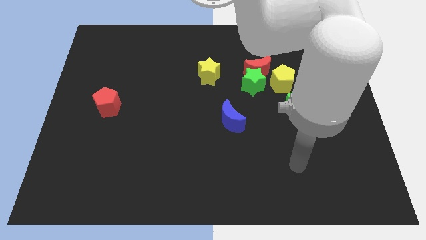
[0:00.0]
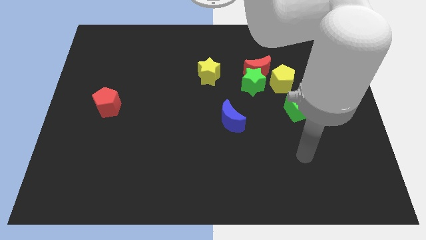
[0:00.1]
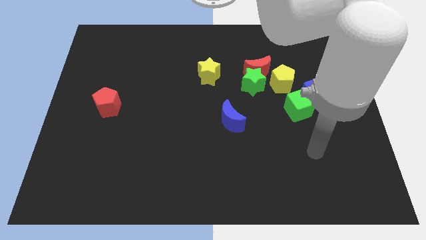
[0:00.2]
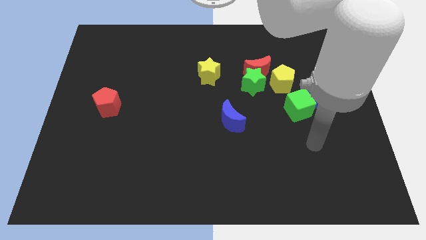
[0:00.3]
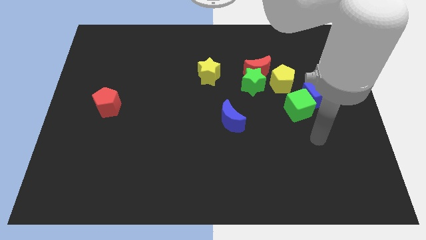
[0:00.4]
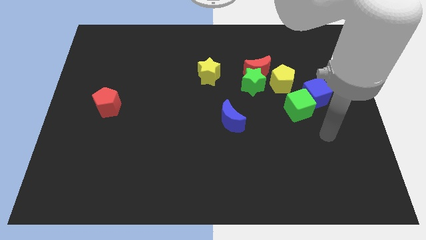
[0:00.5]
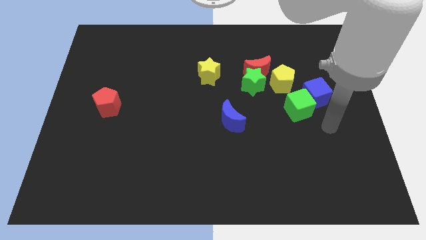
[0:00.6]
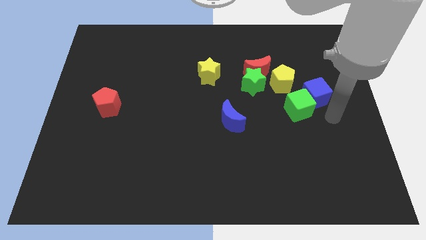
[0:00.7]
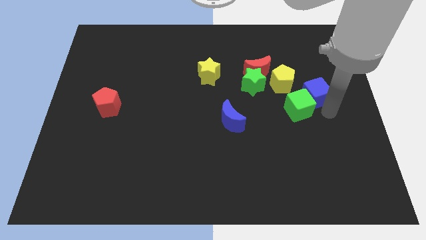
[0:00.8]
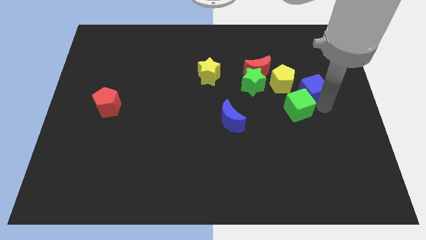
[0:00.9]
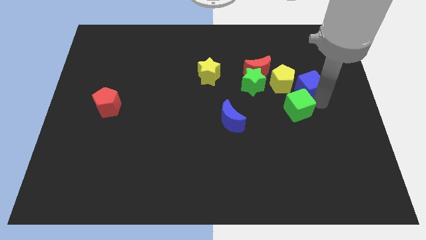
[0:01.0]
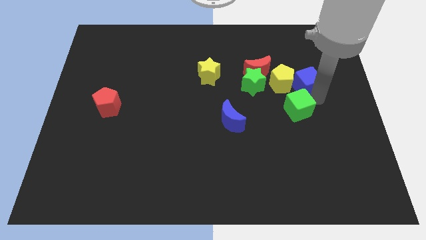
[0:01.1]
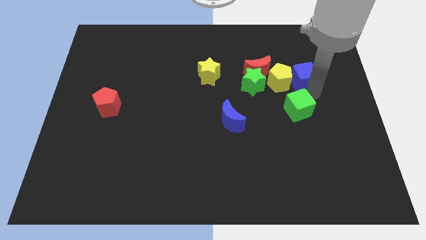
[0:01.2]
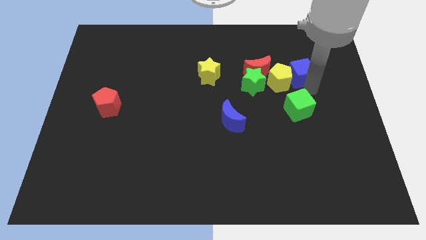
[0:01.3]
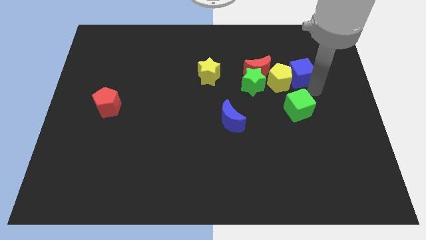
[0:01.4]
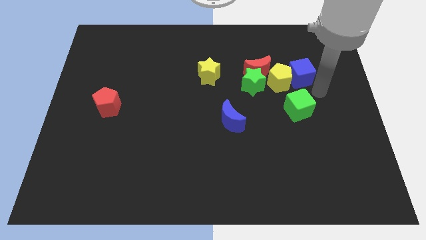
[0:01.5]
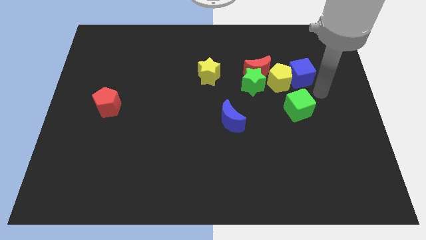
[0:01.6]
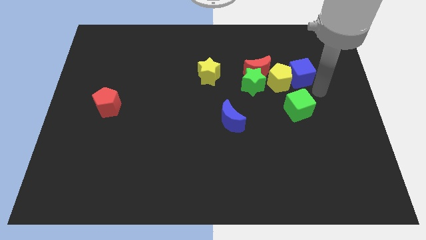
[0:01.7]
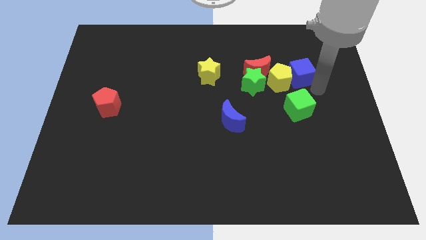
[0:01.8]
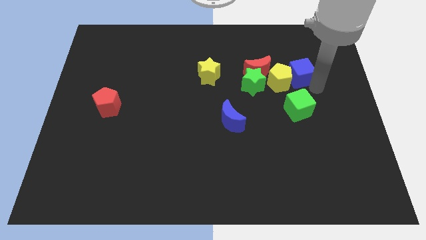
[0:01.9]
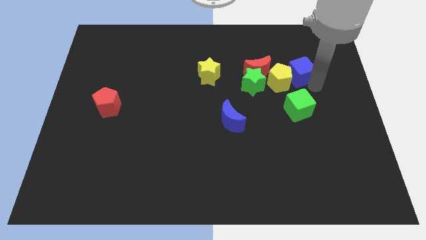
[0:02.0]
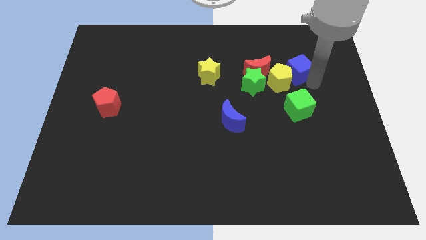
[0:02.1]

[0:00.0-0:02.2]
slightly push the blue cube up and then left

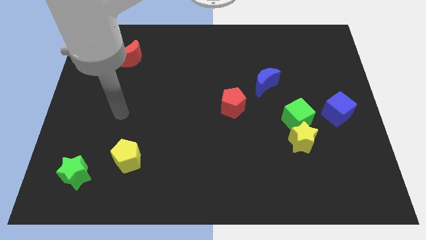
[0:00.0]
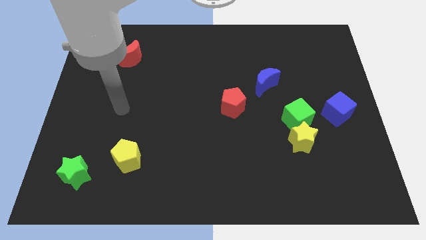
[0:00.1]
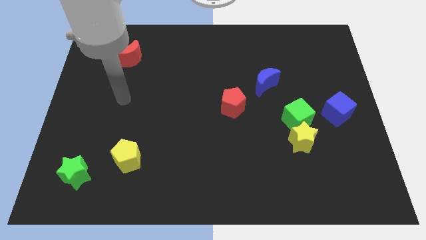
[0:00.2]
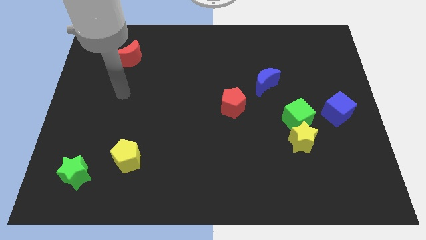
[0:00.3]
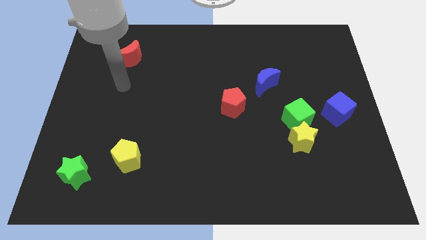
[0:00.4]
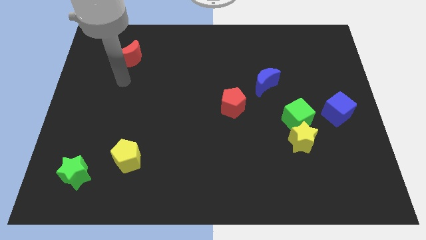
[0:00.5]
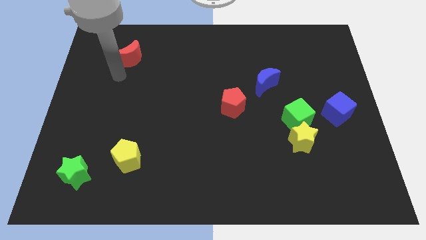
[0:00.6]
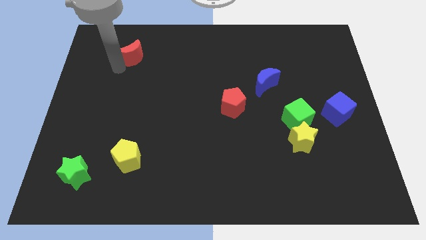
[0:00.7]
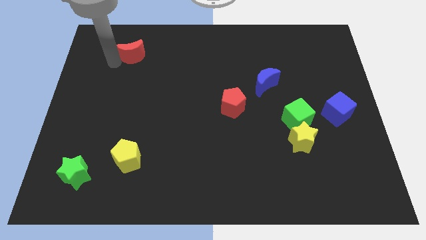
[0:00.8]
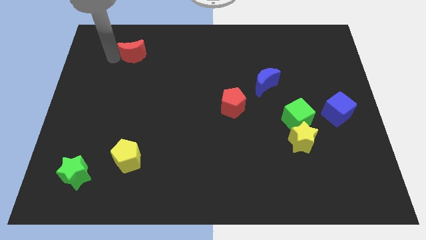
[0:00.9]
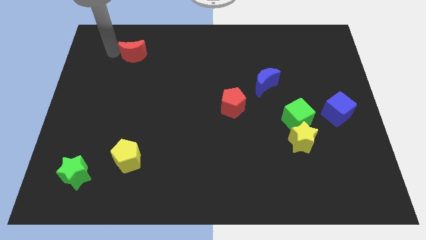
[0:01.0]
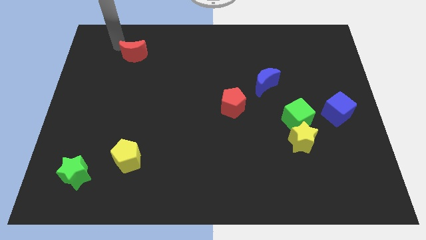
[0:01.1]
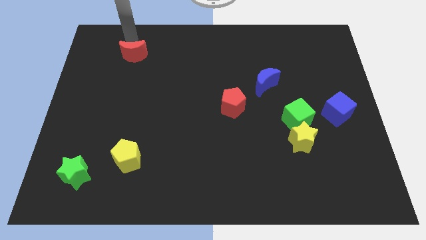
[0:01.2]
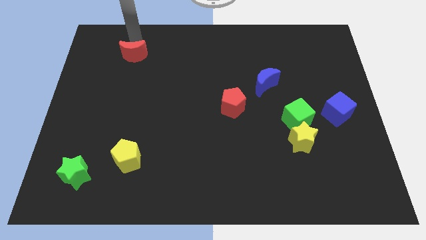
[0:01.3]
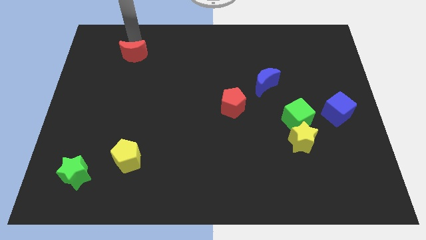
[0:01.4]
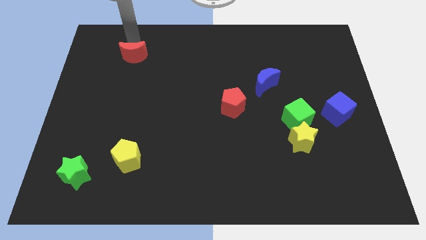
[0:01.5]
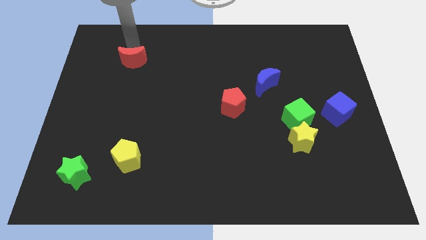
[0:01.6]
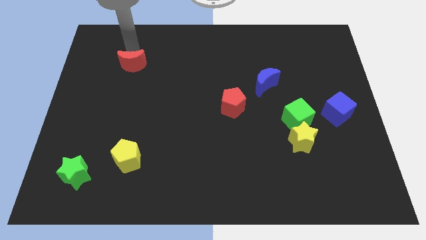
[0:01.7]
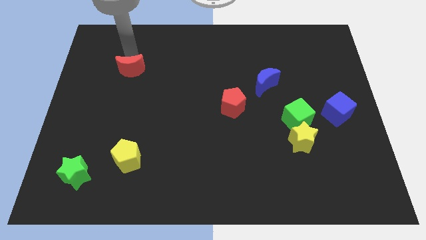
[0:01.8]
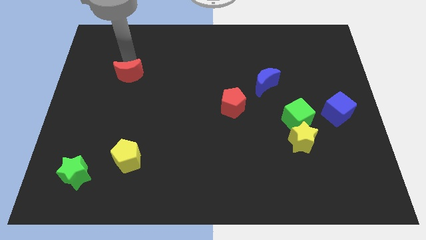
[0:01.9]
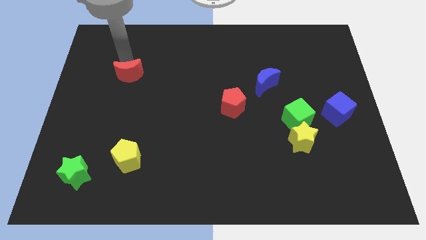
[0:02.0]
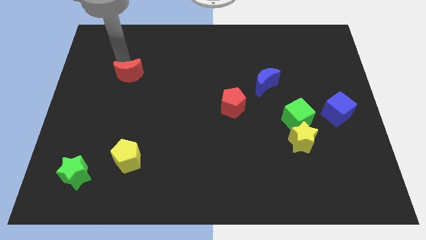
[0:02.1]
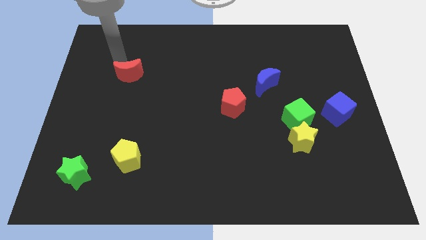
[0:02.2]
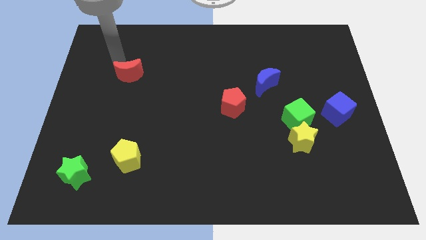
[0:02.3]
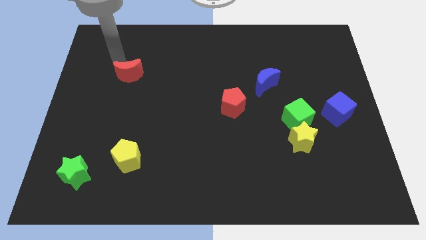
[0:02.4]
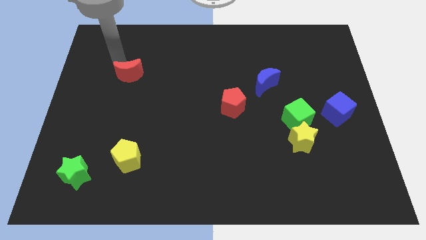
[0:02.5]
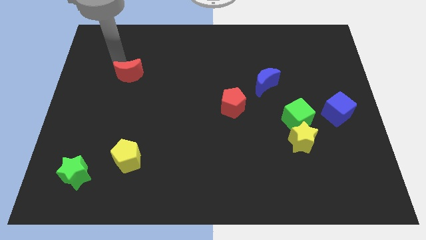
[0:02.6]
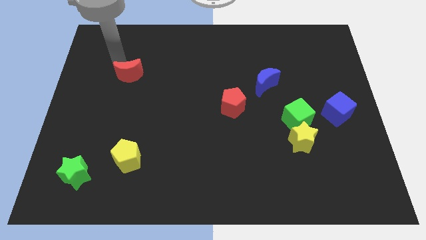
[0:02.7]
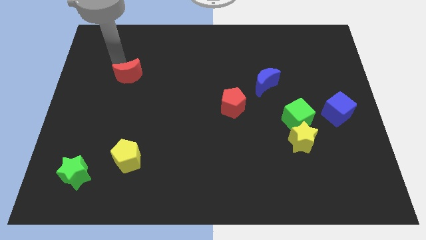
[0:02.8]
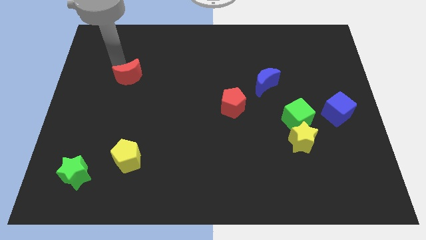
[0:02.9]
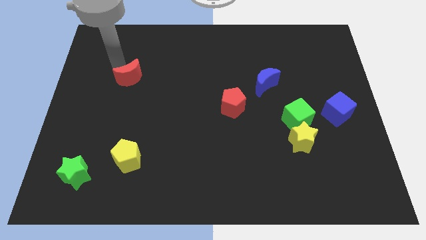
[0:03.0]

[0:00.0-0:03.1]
push the red moon downwards a little bit

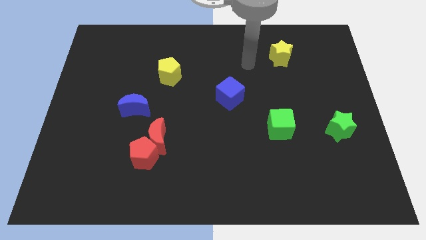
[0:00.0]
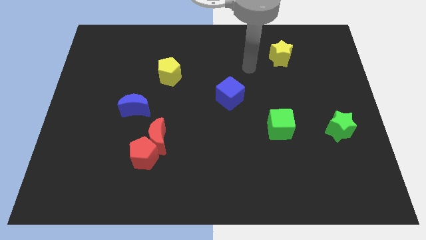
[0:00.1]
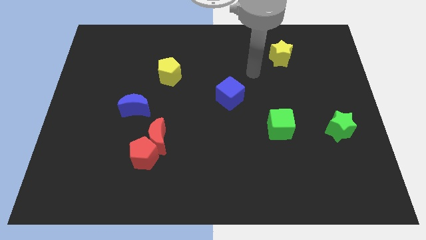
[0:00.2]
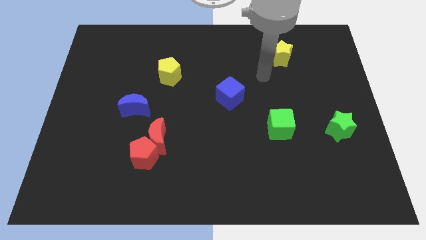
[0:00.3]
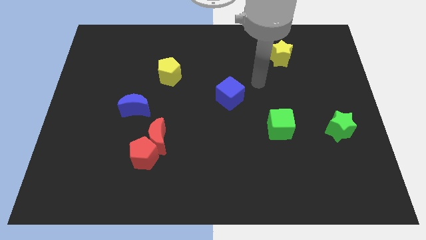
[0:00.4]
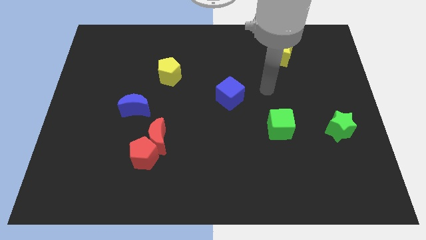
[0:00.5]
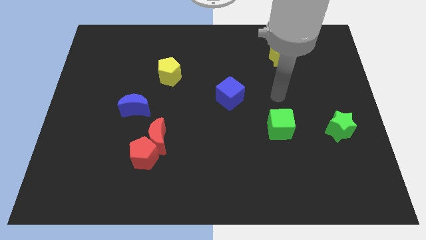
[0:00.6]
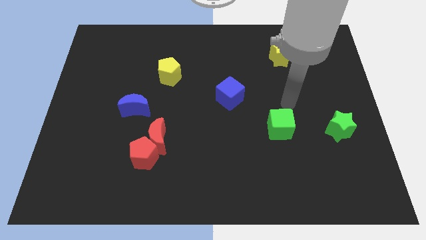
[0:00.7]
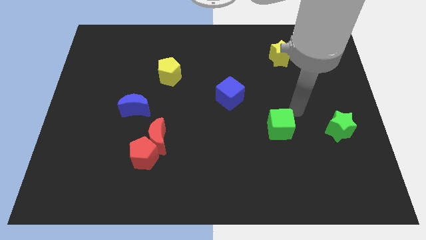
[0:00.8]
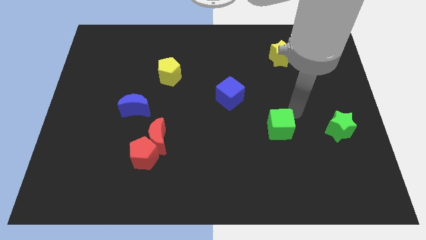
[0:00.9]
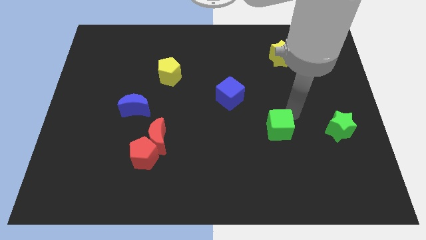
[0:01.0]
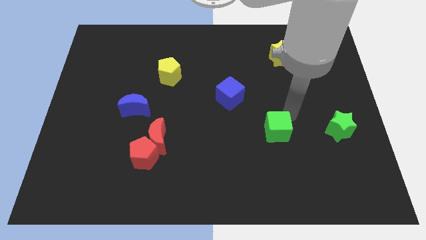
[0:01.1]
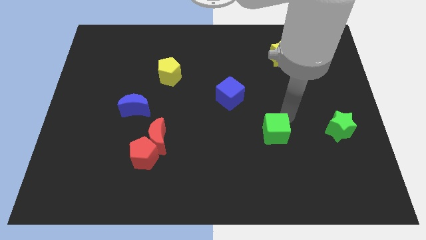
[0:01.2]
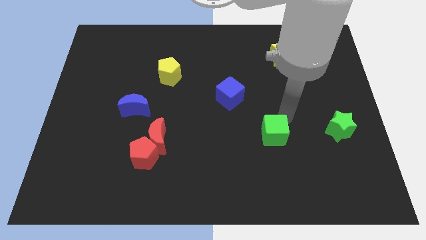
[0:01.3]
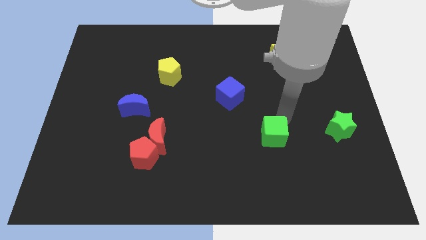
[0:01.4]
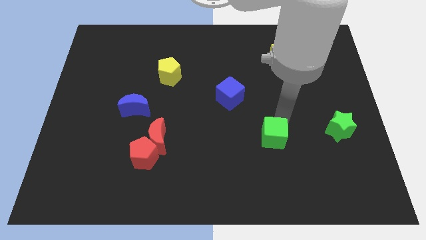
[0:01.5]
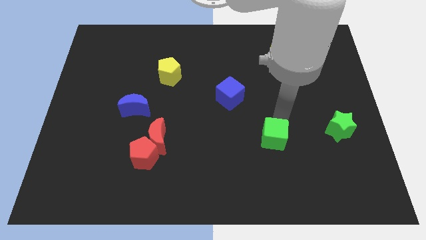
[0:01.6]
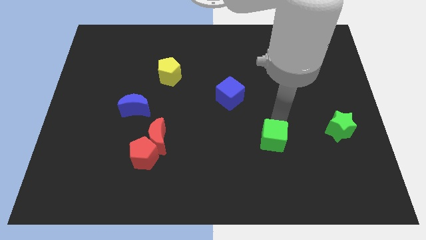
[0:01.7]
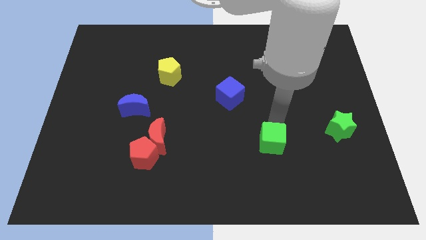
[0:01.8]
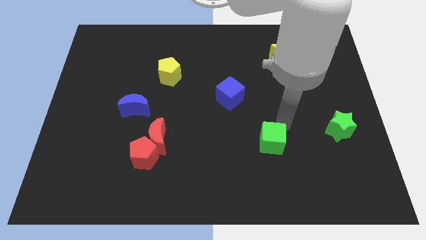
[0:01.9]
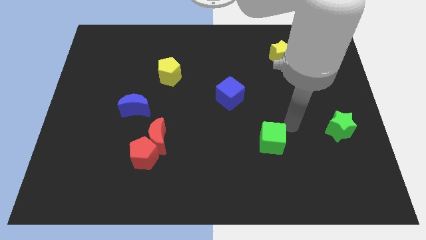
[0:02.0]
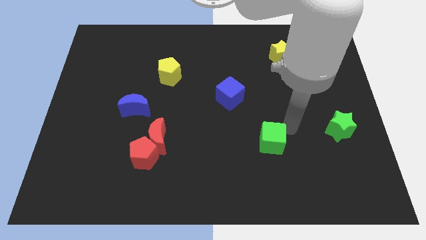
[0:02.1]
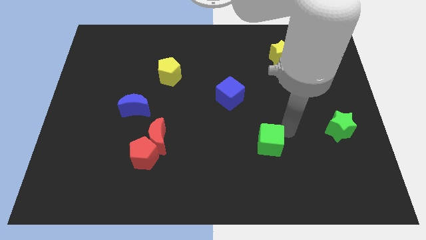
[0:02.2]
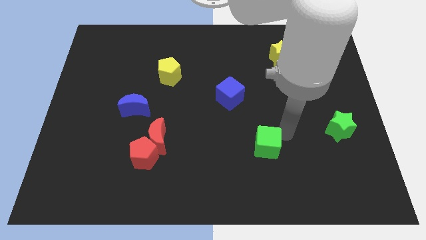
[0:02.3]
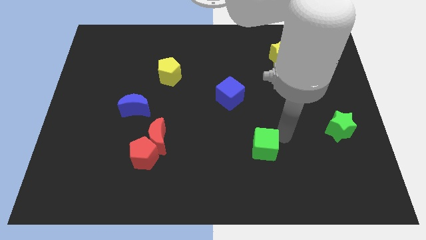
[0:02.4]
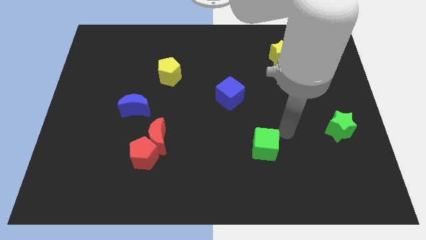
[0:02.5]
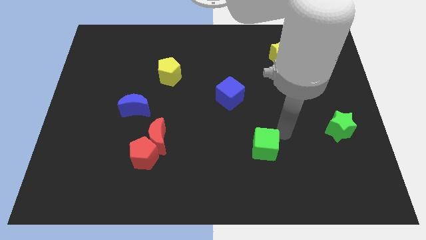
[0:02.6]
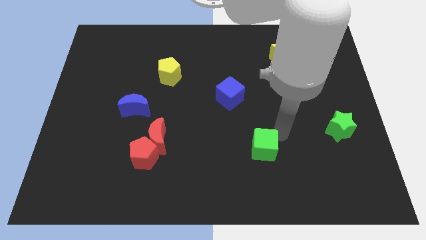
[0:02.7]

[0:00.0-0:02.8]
move the green cube a bit down and to the left diagonally

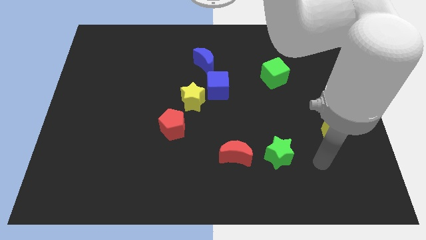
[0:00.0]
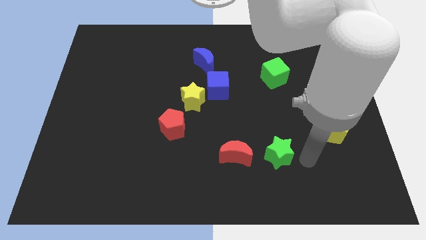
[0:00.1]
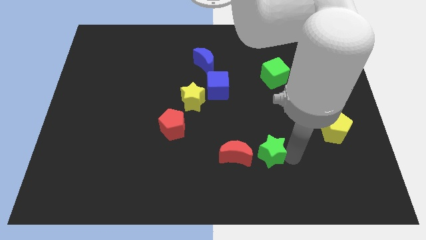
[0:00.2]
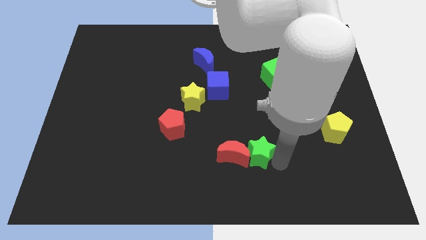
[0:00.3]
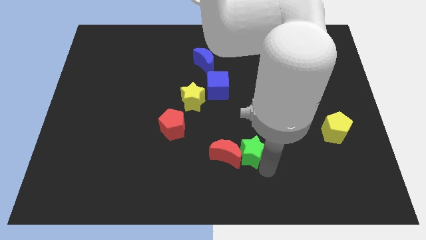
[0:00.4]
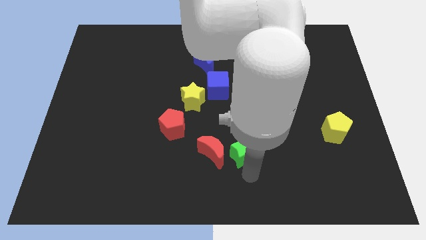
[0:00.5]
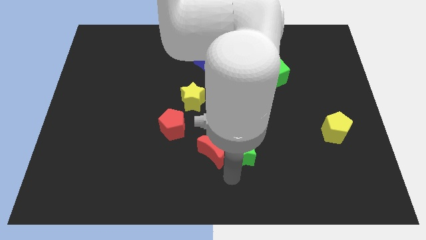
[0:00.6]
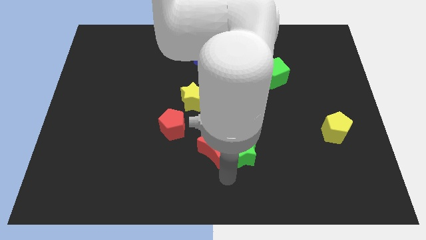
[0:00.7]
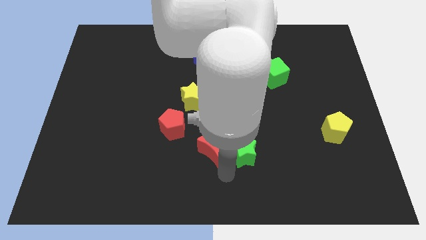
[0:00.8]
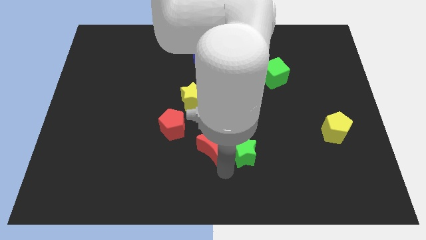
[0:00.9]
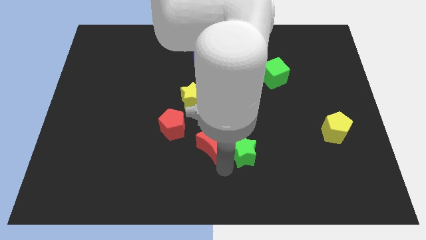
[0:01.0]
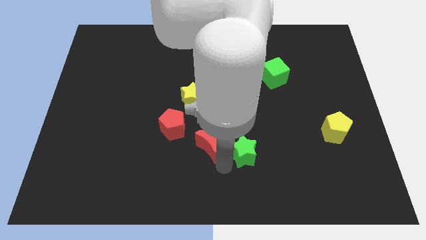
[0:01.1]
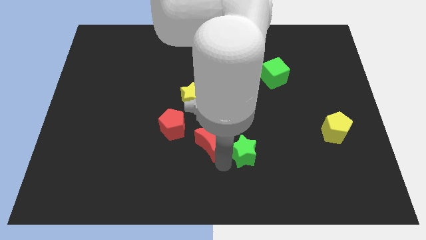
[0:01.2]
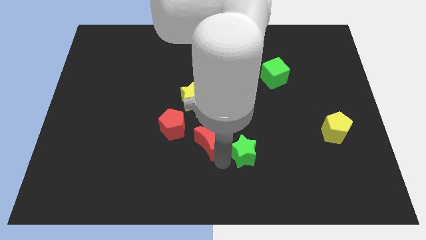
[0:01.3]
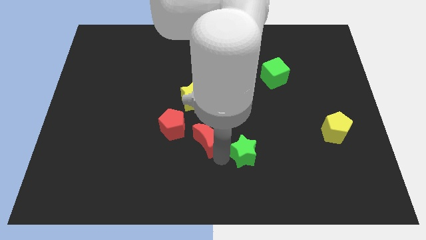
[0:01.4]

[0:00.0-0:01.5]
slide the red moon upwards and then to the left a little bit
